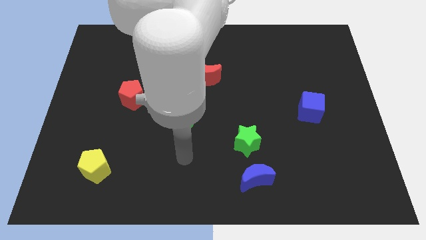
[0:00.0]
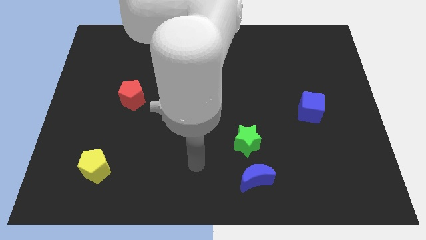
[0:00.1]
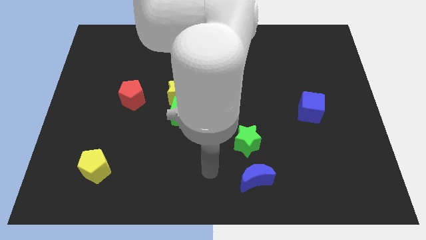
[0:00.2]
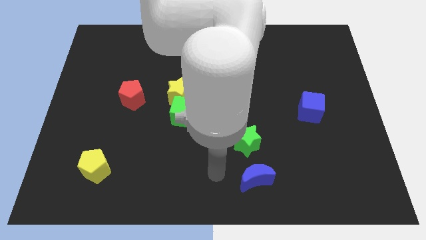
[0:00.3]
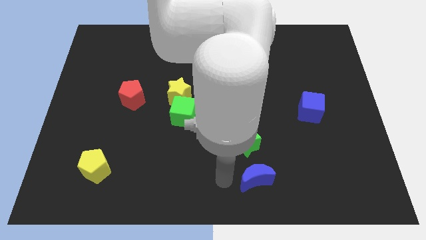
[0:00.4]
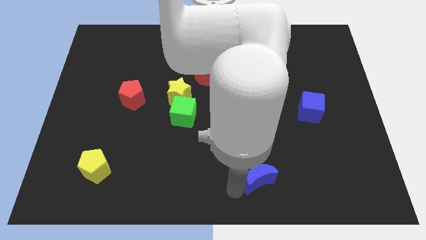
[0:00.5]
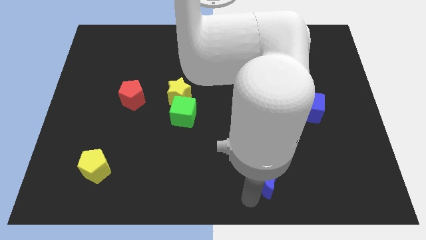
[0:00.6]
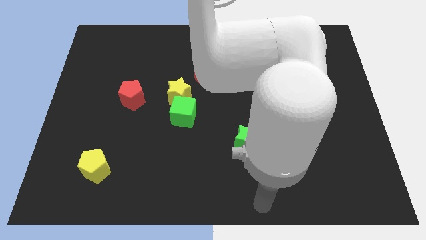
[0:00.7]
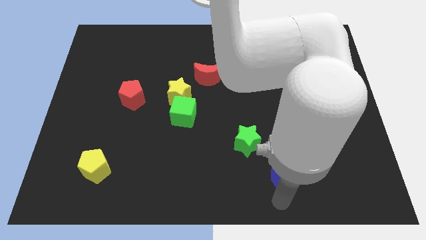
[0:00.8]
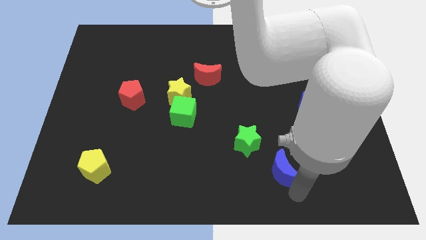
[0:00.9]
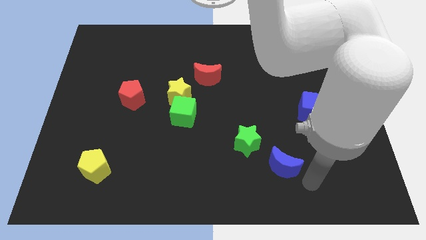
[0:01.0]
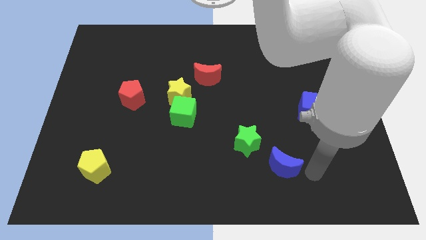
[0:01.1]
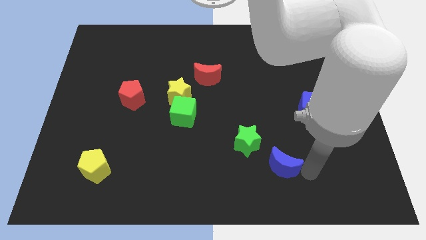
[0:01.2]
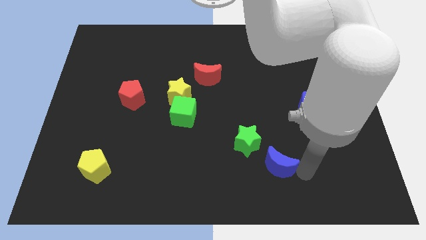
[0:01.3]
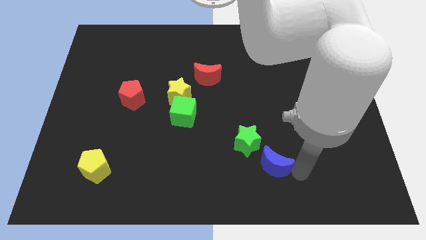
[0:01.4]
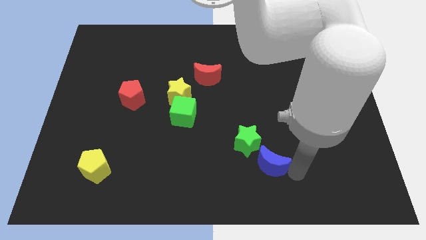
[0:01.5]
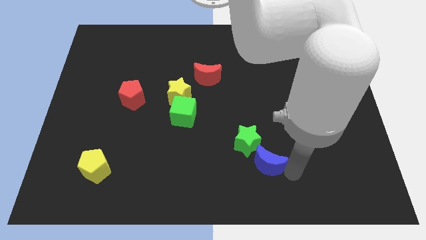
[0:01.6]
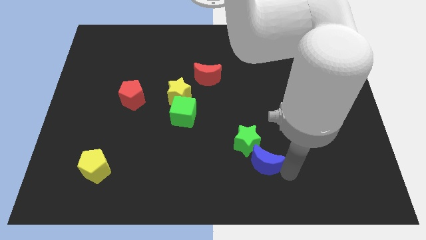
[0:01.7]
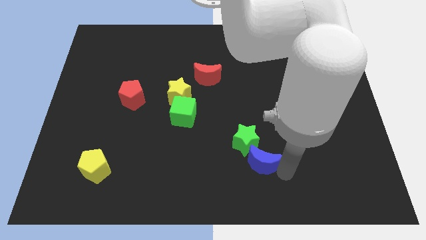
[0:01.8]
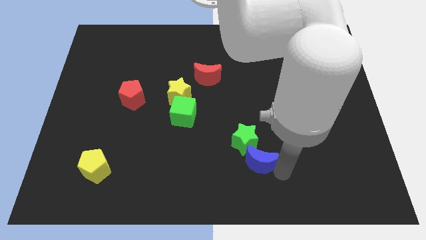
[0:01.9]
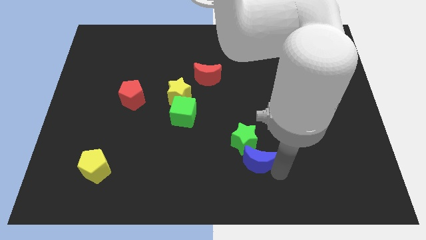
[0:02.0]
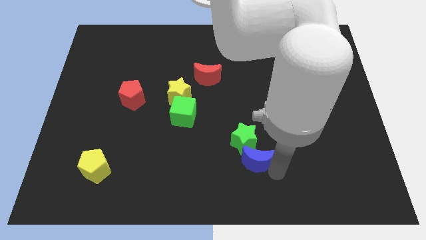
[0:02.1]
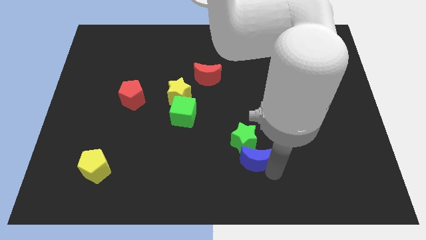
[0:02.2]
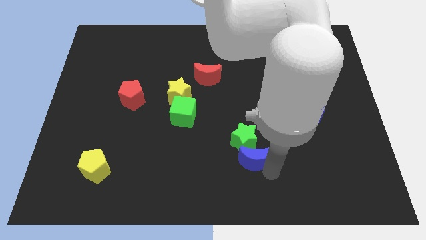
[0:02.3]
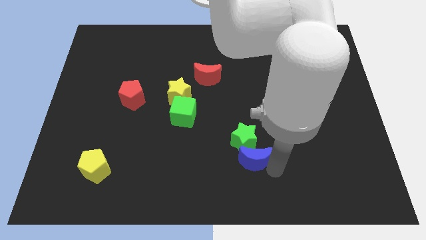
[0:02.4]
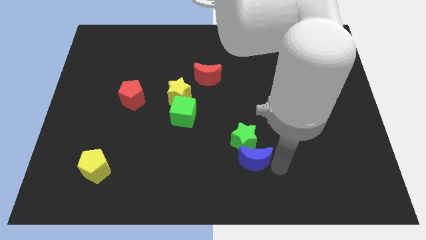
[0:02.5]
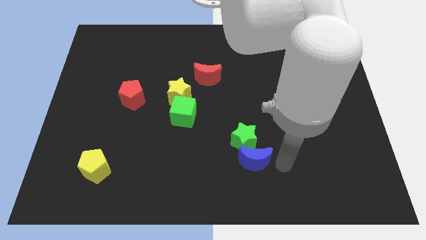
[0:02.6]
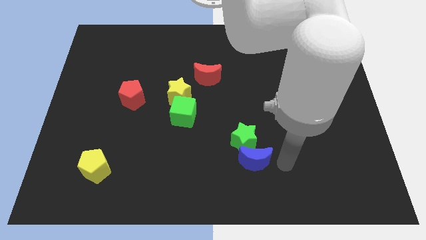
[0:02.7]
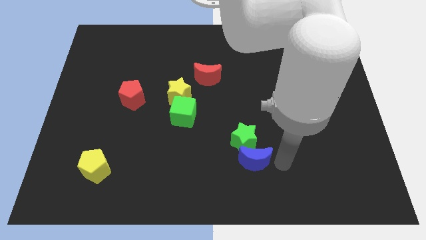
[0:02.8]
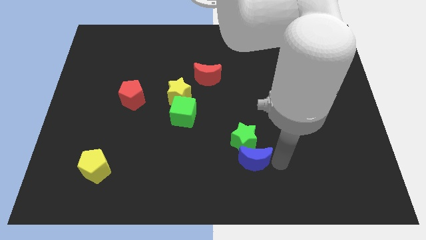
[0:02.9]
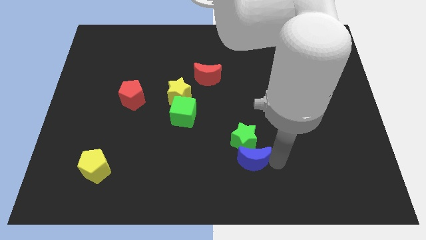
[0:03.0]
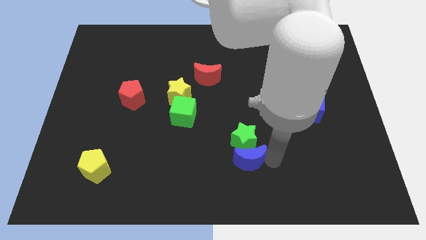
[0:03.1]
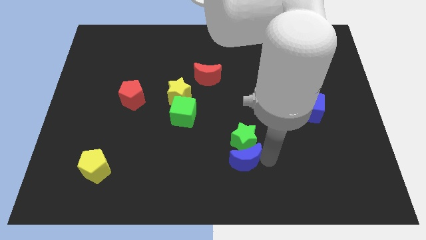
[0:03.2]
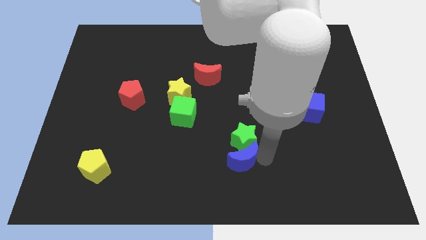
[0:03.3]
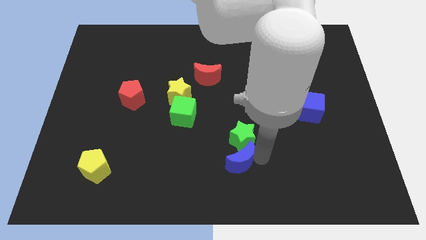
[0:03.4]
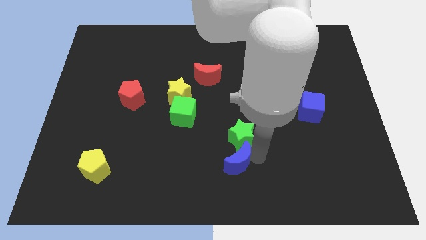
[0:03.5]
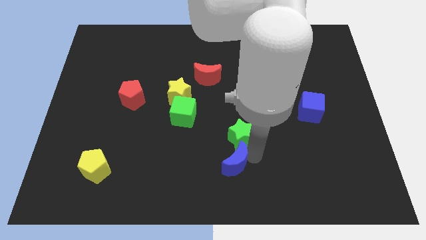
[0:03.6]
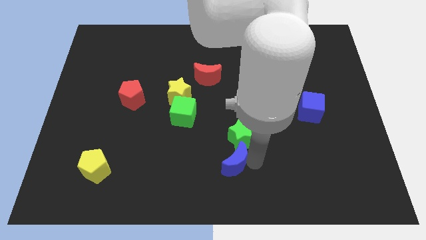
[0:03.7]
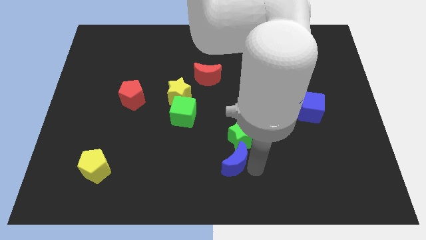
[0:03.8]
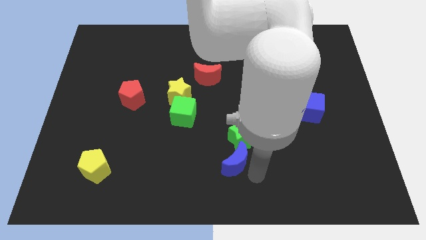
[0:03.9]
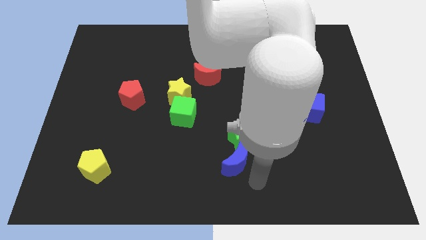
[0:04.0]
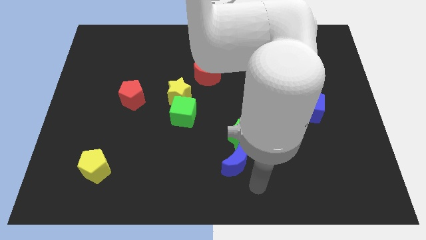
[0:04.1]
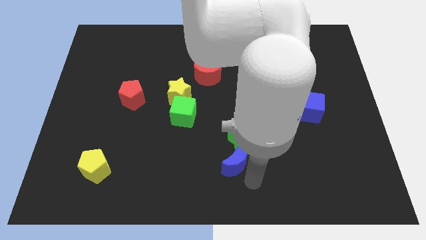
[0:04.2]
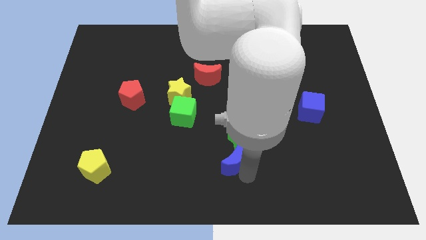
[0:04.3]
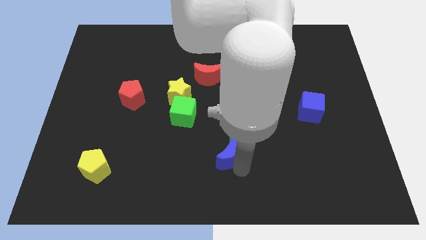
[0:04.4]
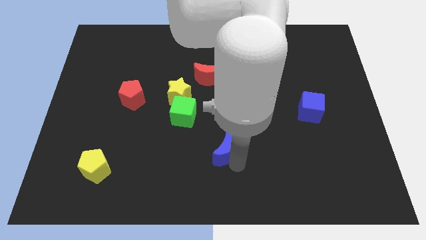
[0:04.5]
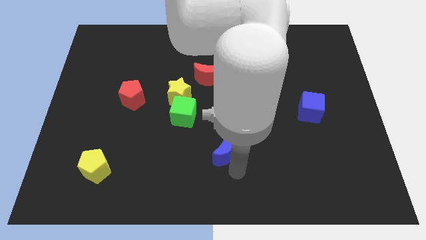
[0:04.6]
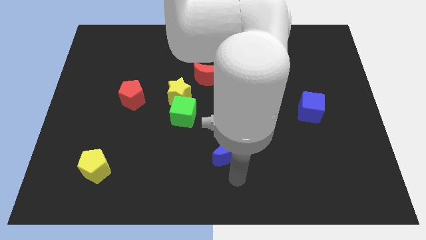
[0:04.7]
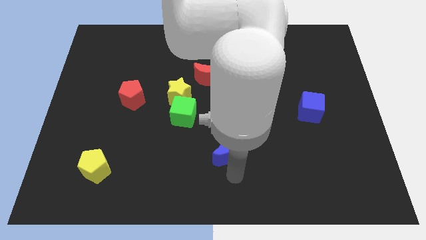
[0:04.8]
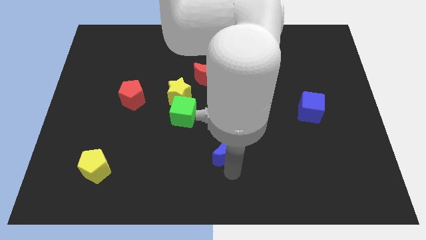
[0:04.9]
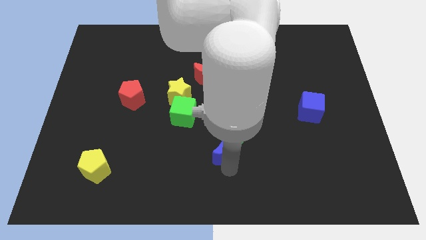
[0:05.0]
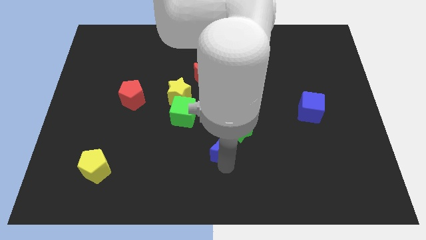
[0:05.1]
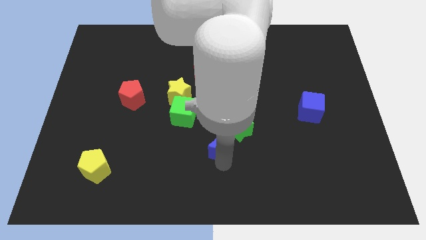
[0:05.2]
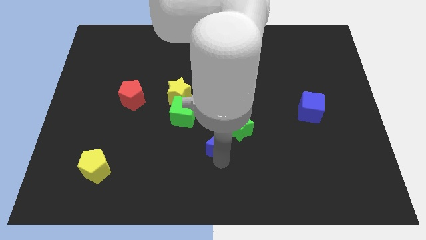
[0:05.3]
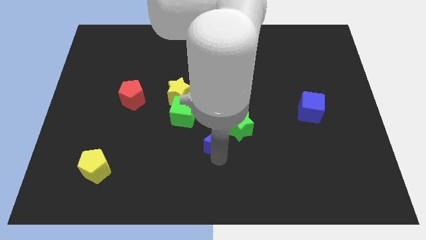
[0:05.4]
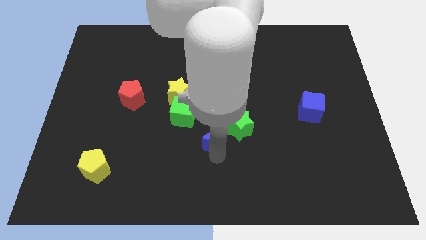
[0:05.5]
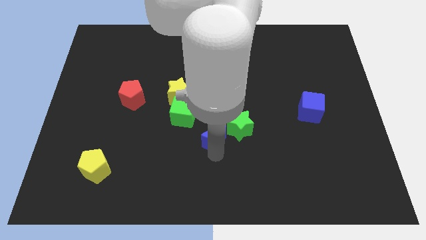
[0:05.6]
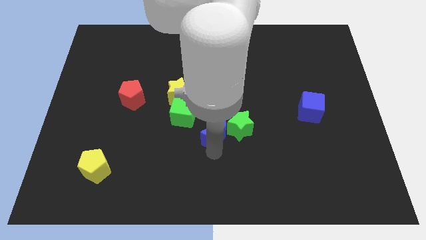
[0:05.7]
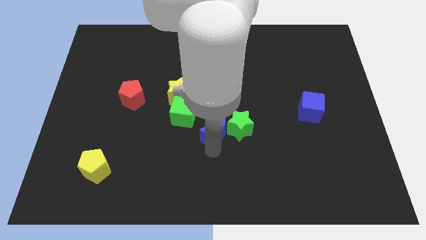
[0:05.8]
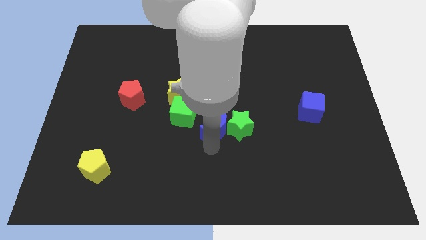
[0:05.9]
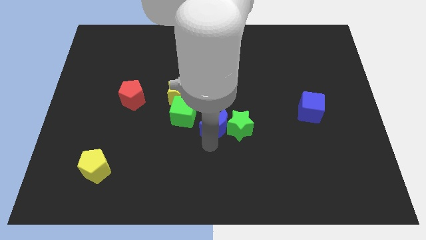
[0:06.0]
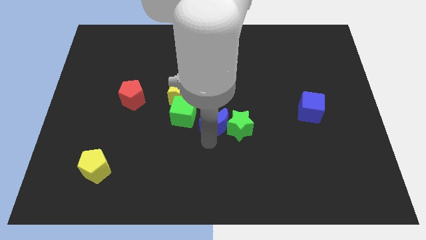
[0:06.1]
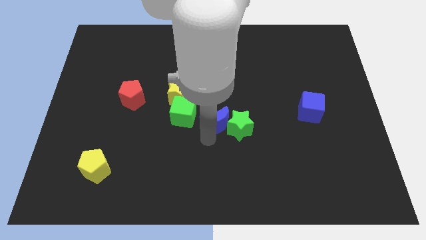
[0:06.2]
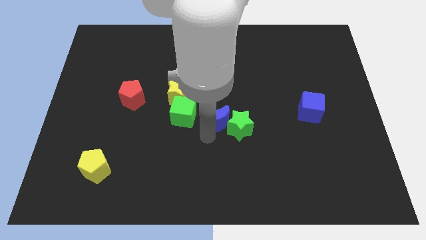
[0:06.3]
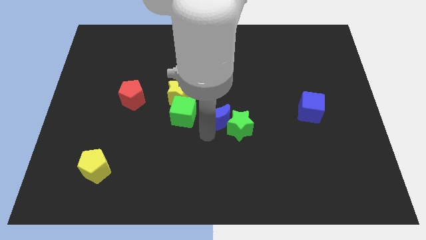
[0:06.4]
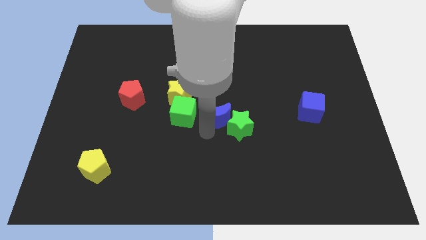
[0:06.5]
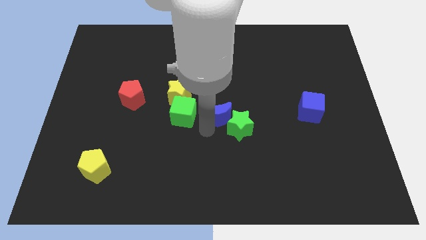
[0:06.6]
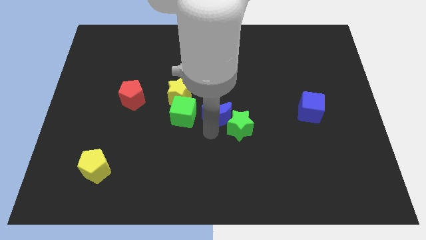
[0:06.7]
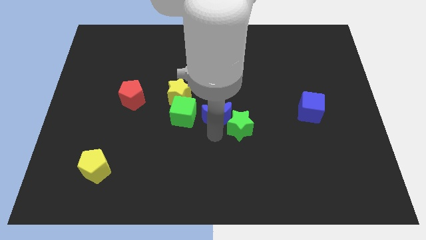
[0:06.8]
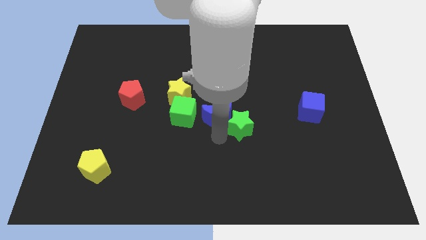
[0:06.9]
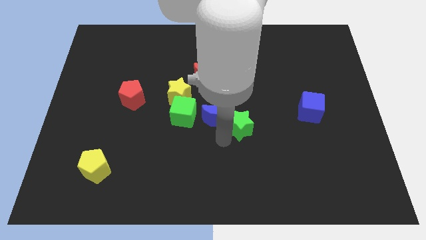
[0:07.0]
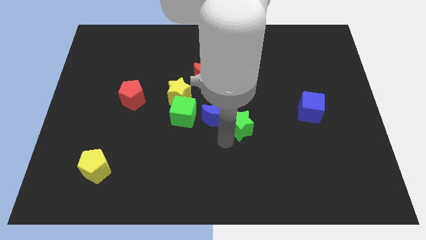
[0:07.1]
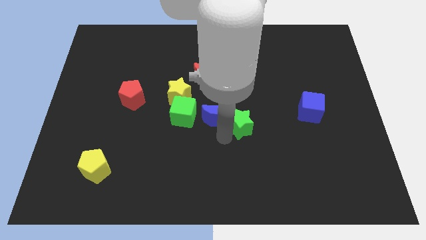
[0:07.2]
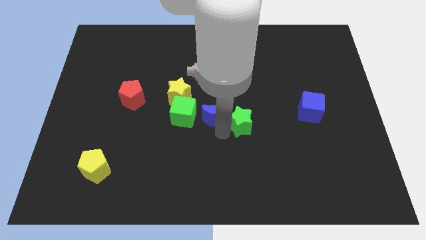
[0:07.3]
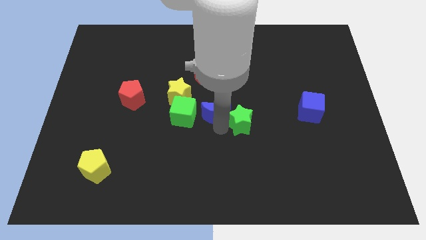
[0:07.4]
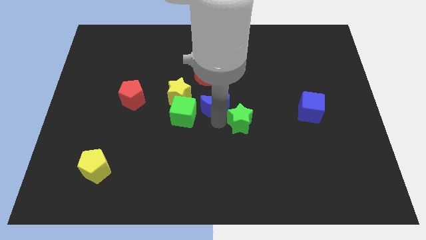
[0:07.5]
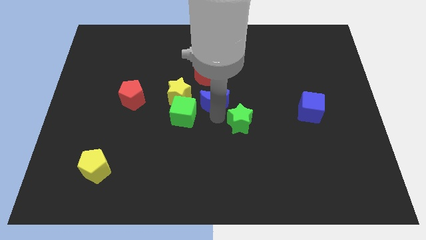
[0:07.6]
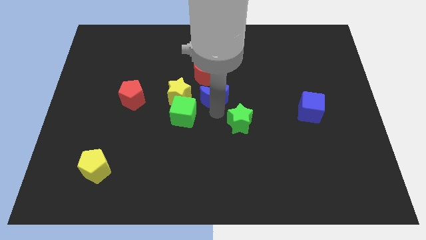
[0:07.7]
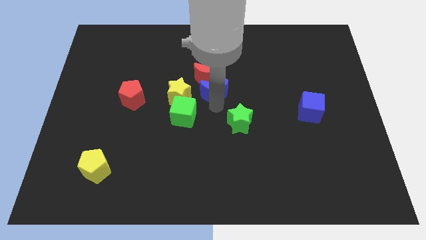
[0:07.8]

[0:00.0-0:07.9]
put the blue moon close to the red moon
